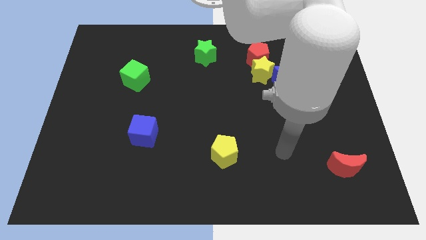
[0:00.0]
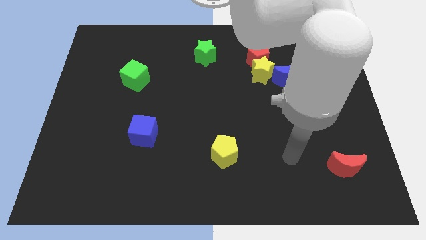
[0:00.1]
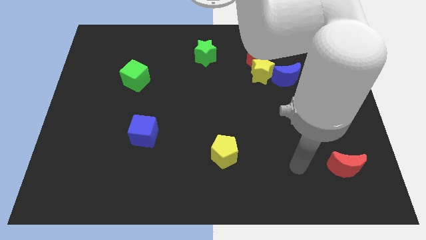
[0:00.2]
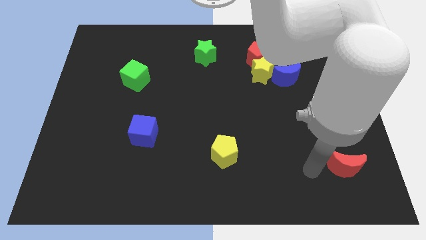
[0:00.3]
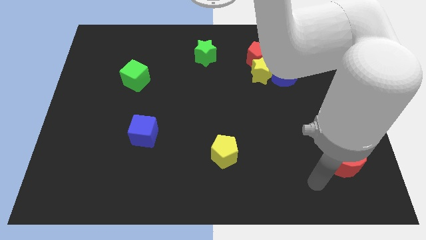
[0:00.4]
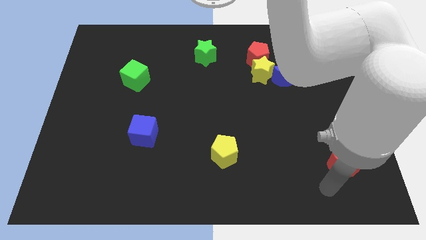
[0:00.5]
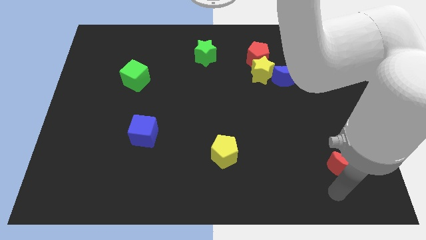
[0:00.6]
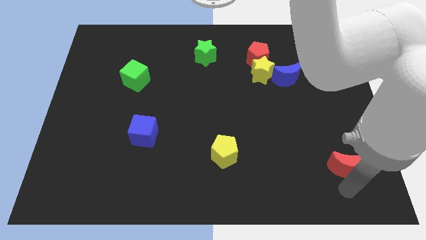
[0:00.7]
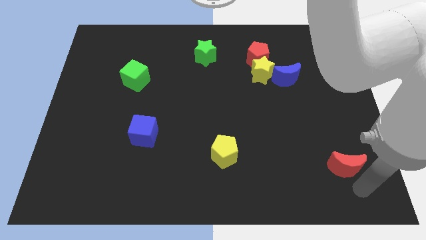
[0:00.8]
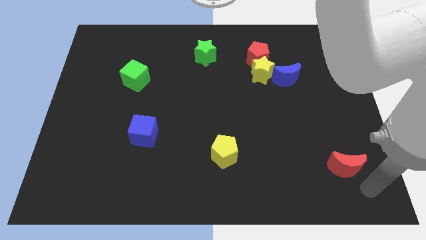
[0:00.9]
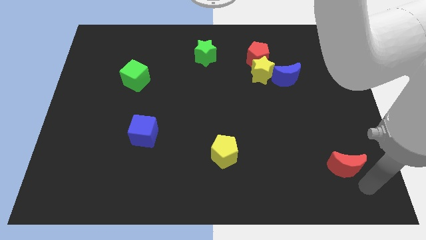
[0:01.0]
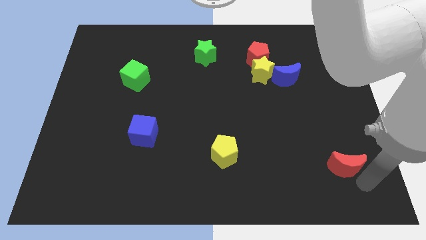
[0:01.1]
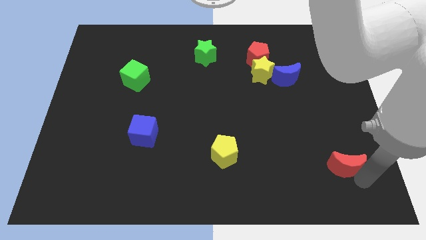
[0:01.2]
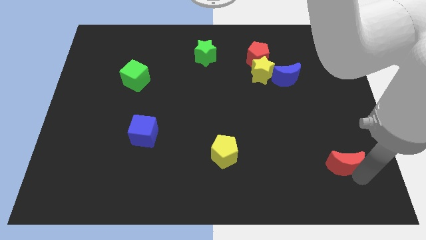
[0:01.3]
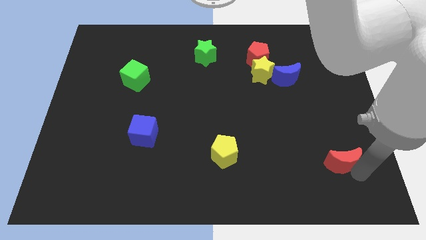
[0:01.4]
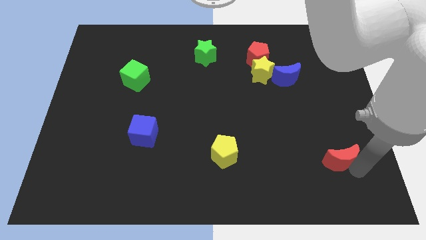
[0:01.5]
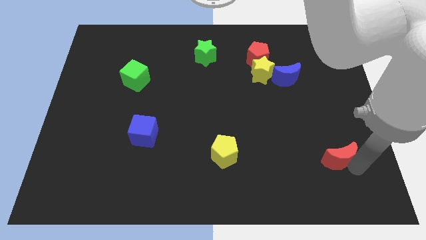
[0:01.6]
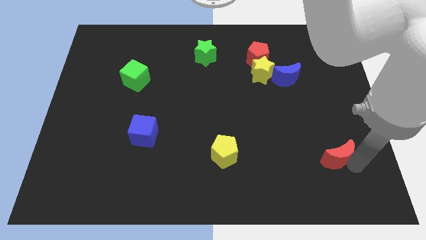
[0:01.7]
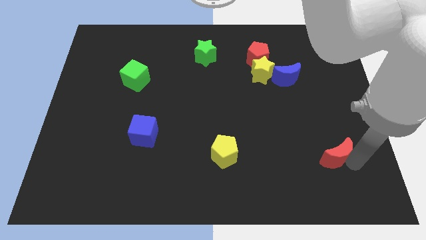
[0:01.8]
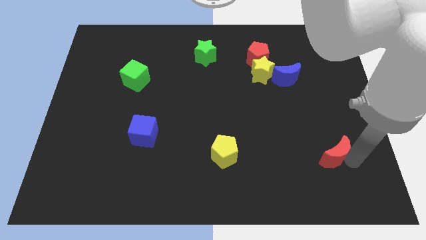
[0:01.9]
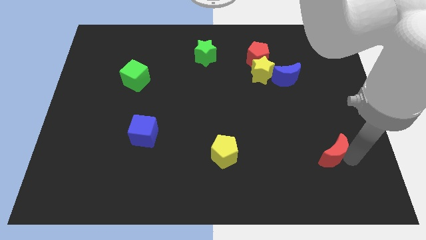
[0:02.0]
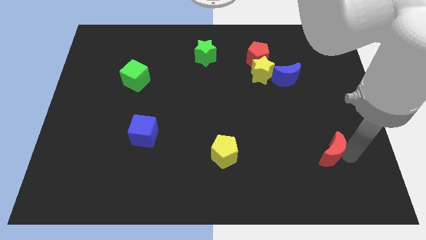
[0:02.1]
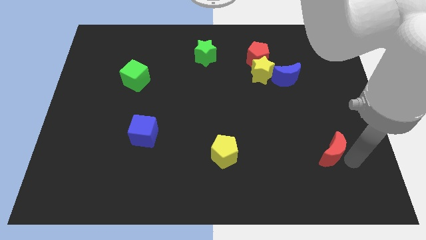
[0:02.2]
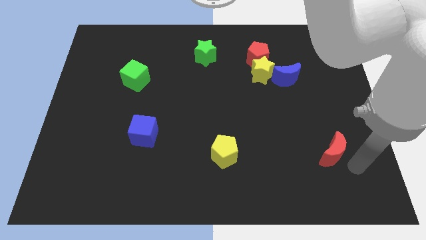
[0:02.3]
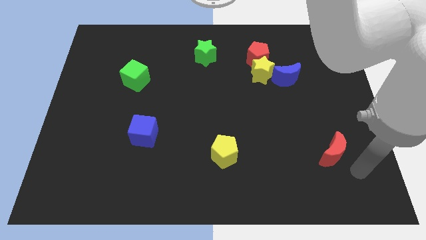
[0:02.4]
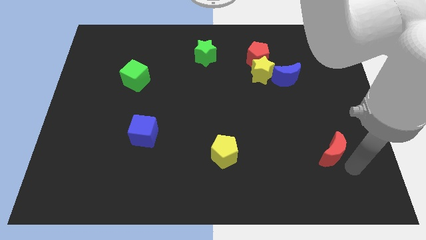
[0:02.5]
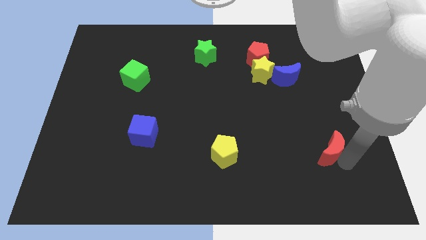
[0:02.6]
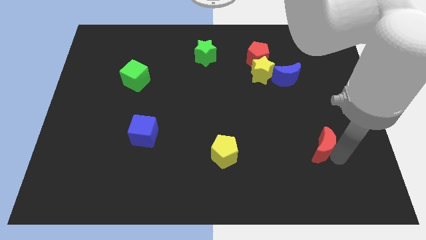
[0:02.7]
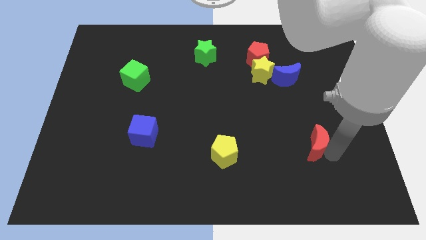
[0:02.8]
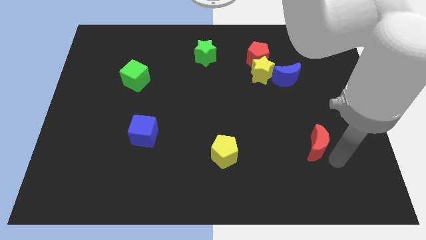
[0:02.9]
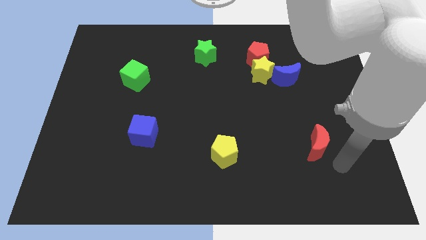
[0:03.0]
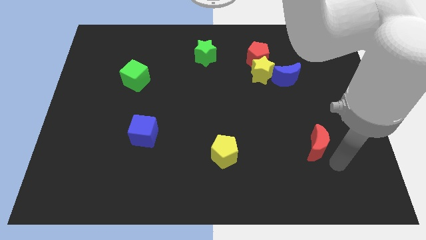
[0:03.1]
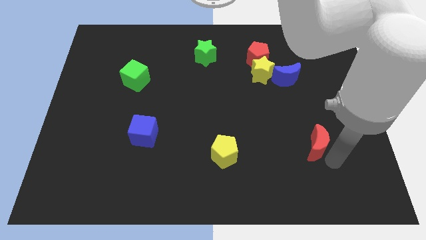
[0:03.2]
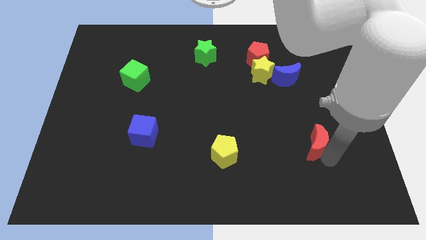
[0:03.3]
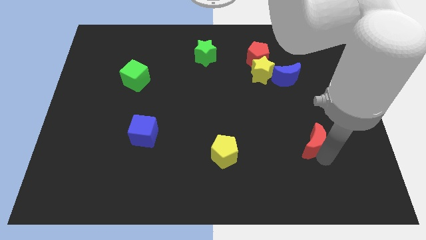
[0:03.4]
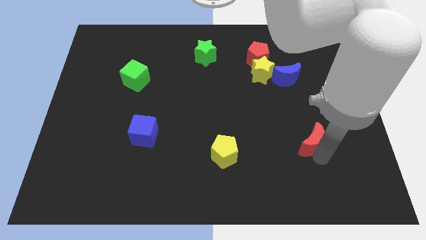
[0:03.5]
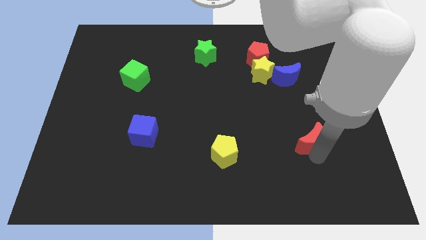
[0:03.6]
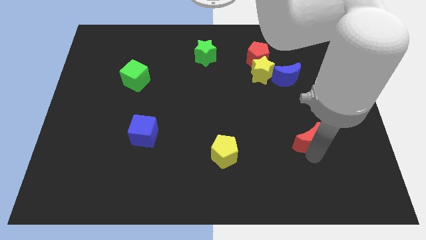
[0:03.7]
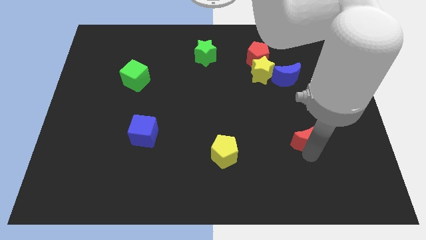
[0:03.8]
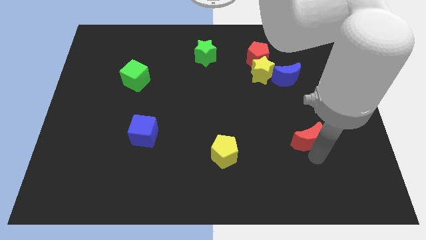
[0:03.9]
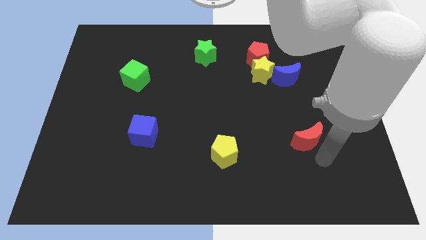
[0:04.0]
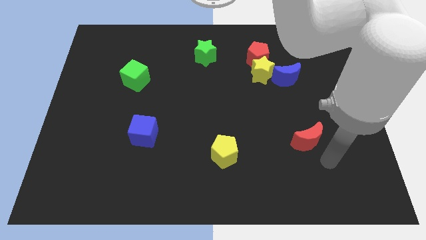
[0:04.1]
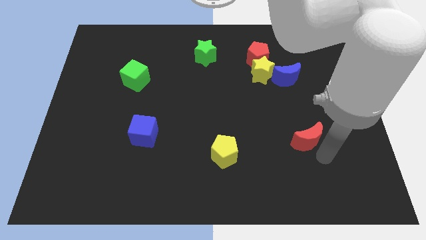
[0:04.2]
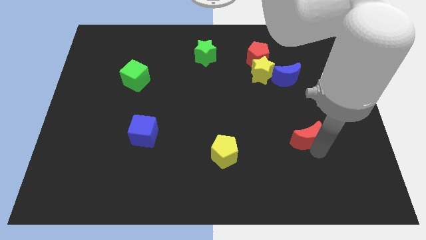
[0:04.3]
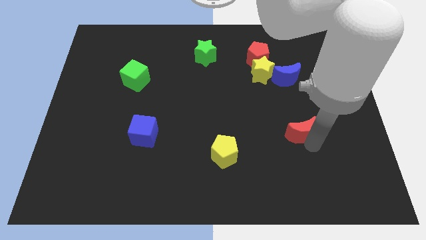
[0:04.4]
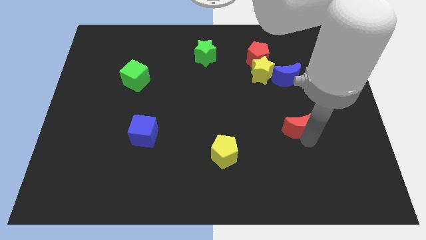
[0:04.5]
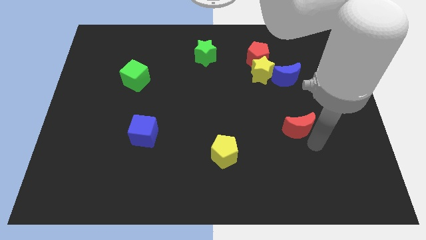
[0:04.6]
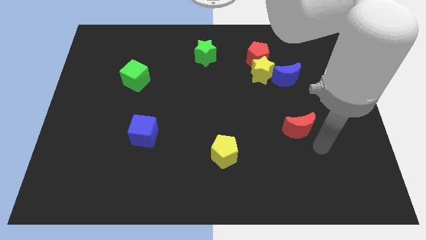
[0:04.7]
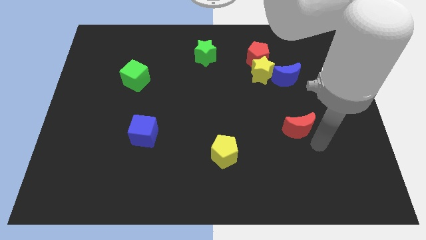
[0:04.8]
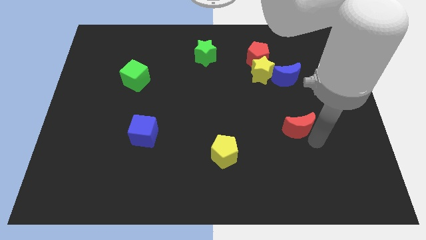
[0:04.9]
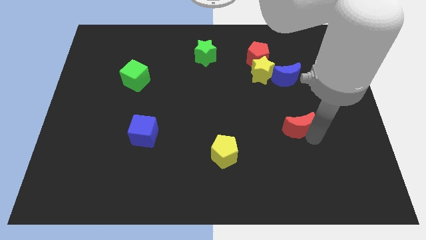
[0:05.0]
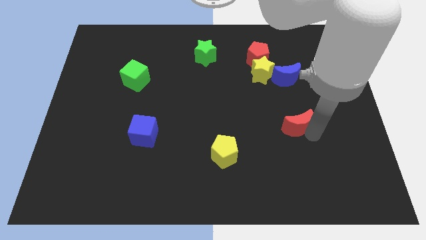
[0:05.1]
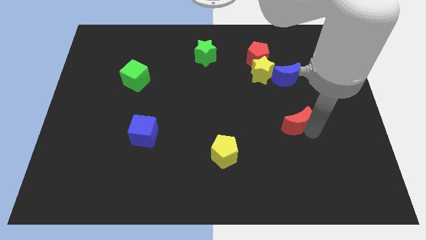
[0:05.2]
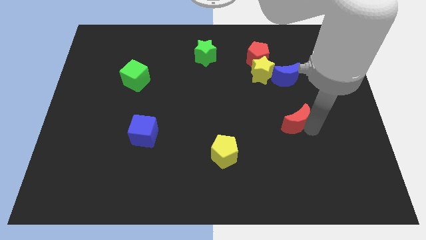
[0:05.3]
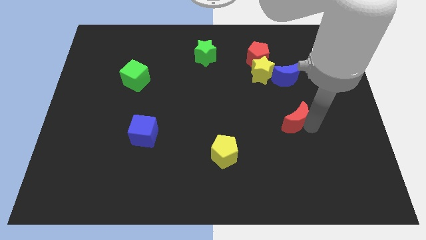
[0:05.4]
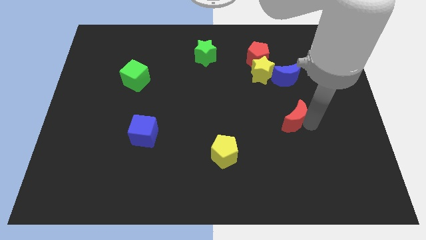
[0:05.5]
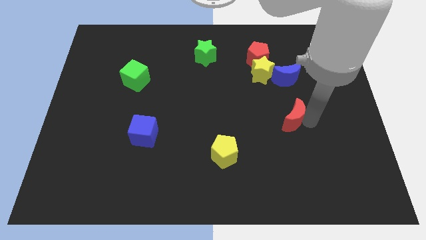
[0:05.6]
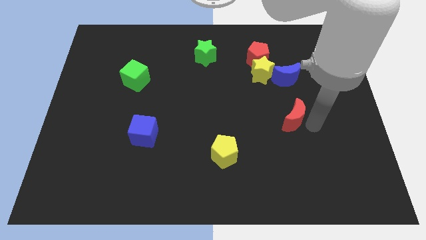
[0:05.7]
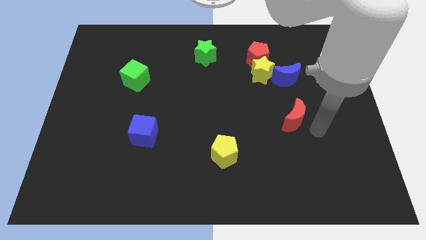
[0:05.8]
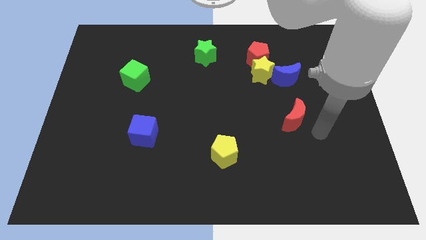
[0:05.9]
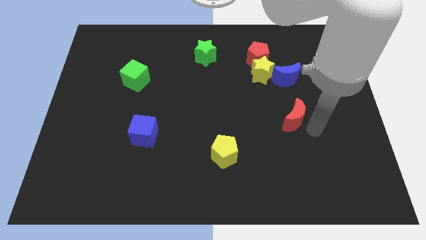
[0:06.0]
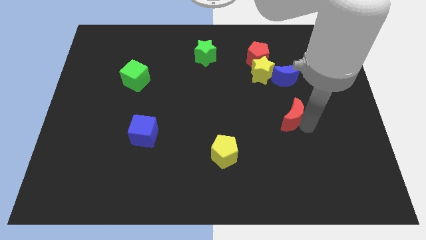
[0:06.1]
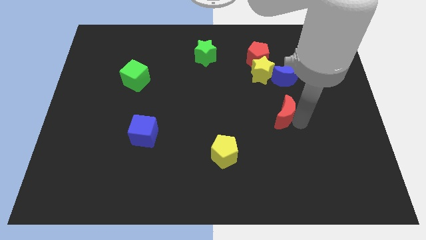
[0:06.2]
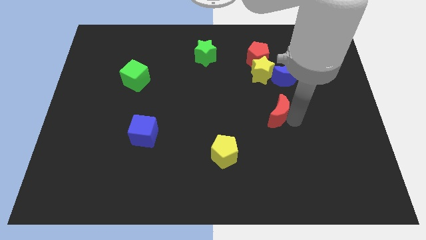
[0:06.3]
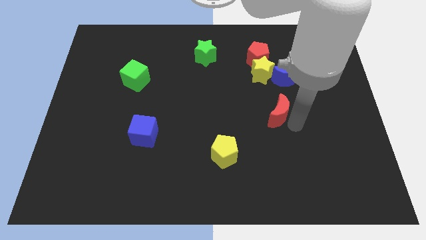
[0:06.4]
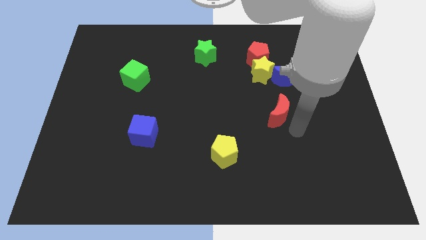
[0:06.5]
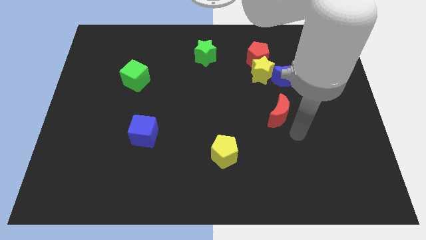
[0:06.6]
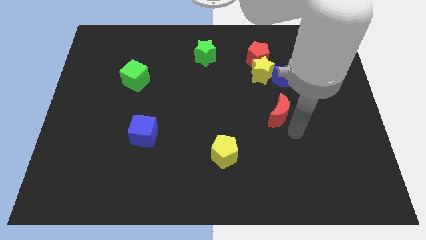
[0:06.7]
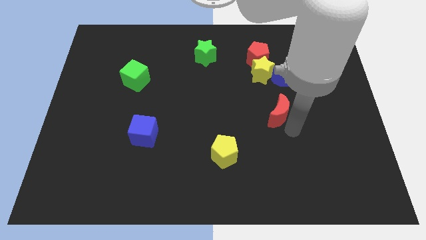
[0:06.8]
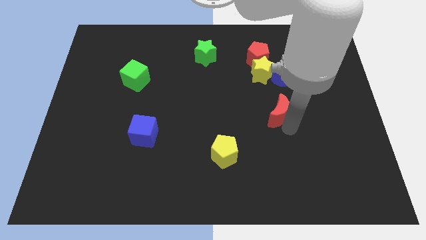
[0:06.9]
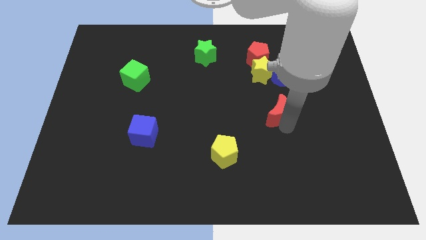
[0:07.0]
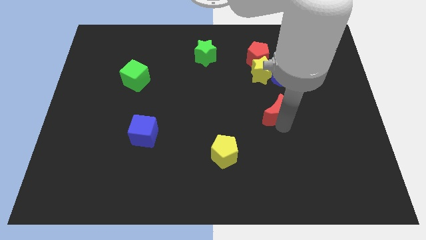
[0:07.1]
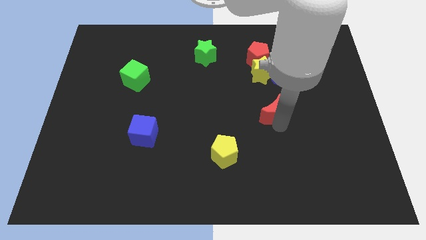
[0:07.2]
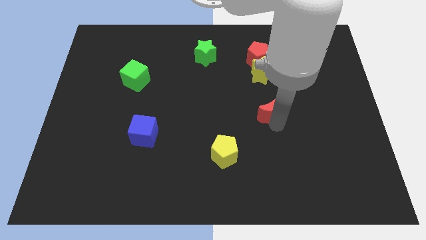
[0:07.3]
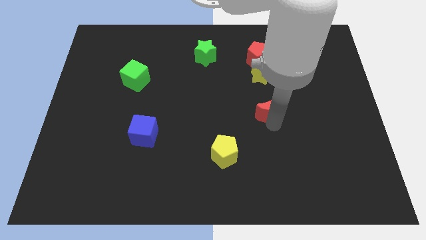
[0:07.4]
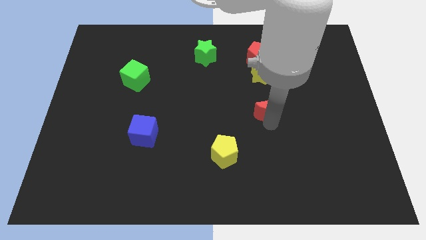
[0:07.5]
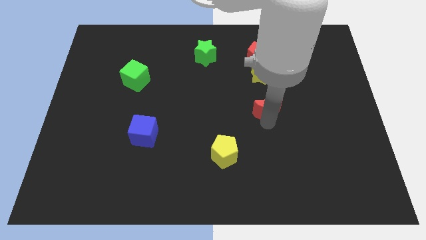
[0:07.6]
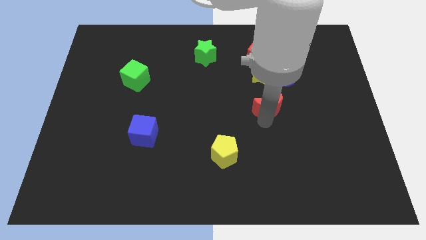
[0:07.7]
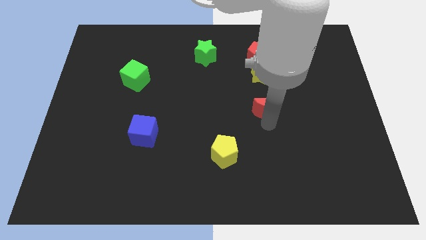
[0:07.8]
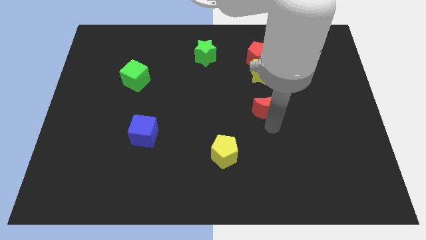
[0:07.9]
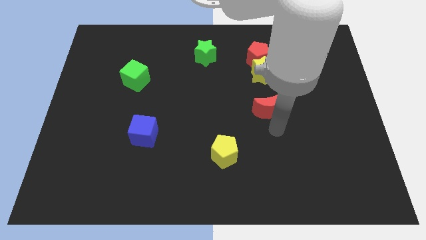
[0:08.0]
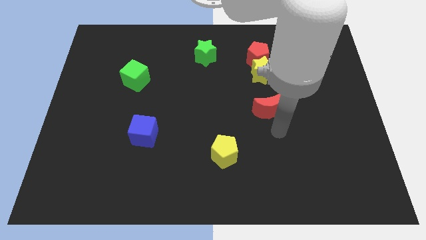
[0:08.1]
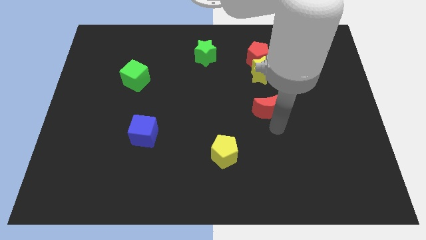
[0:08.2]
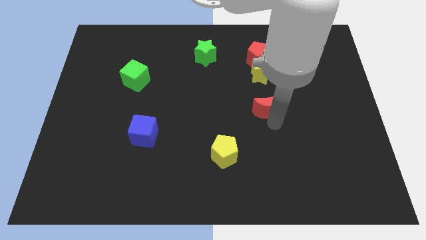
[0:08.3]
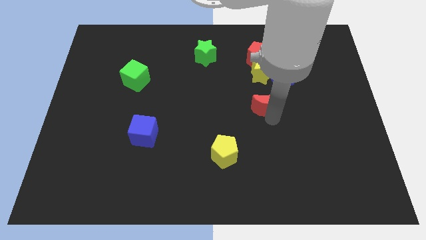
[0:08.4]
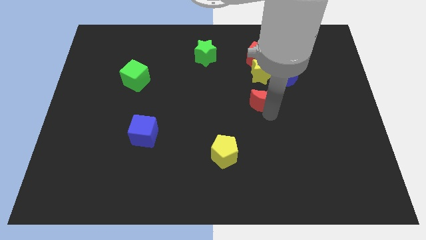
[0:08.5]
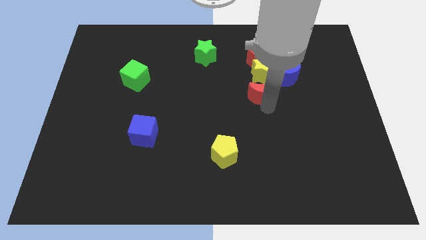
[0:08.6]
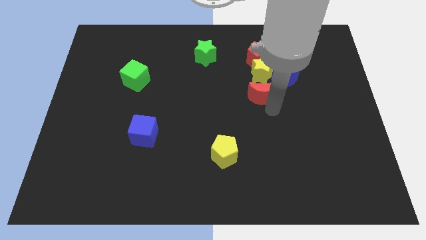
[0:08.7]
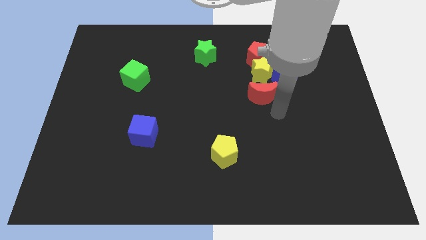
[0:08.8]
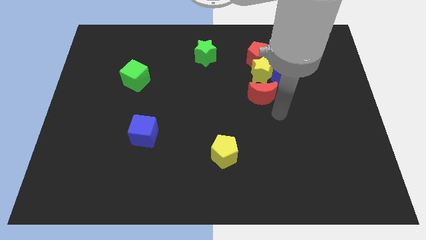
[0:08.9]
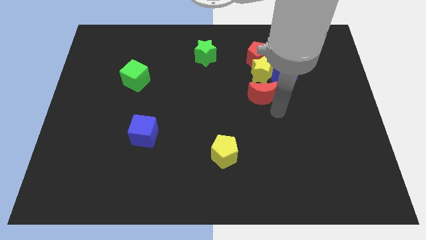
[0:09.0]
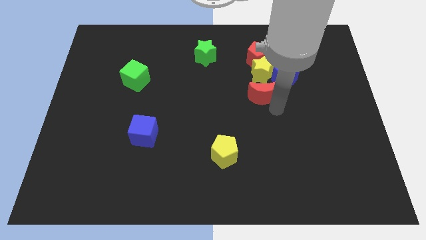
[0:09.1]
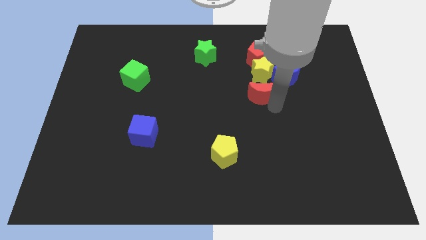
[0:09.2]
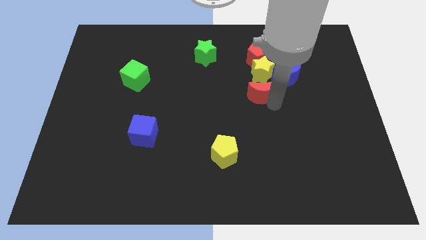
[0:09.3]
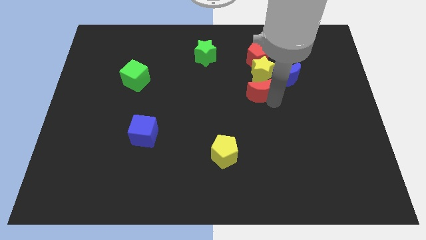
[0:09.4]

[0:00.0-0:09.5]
slide the red moon left of the blue moon
